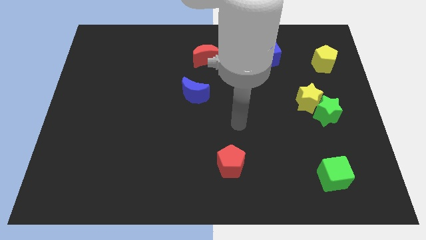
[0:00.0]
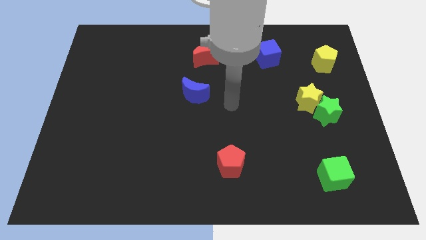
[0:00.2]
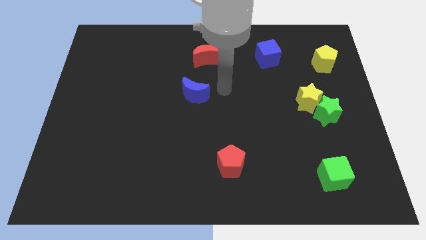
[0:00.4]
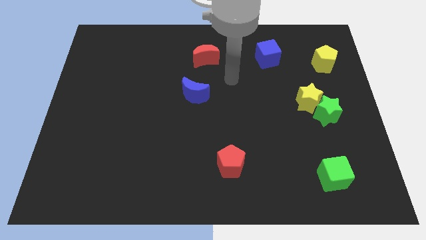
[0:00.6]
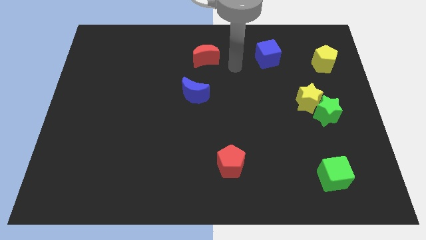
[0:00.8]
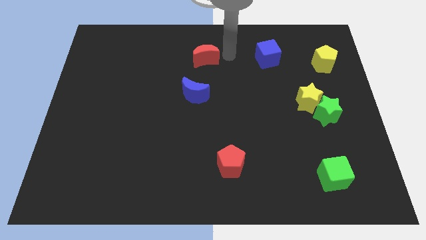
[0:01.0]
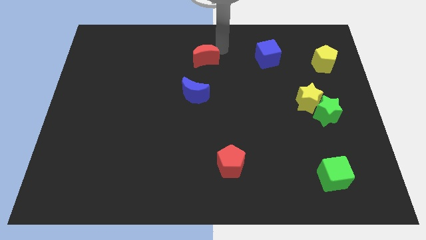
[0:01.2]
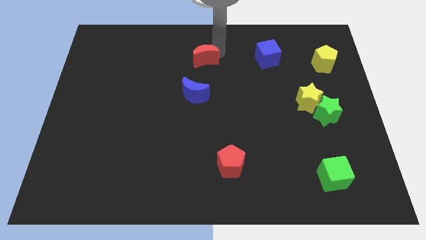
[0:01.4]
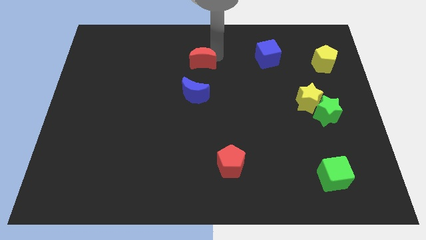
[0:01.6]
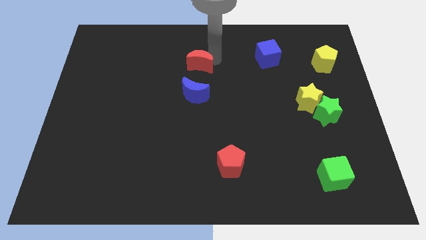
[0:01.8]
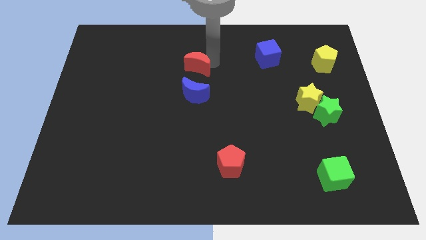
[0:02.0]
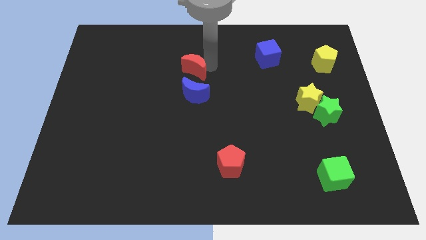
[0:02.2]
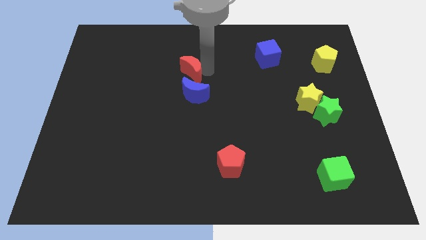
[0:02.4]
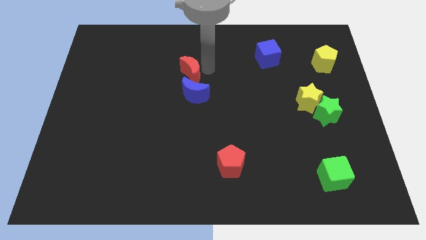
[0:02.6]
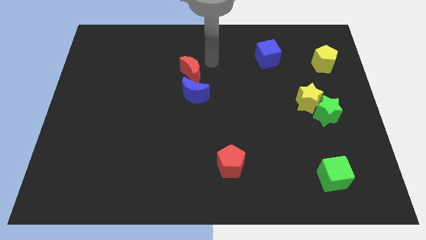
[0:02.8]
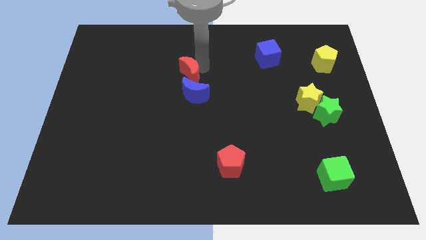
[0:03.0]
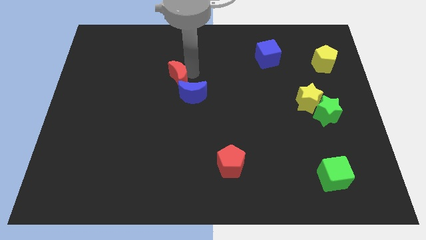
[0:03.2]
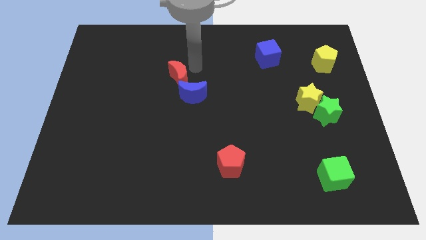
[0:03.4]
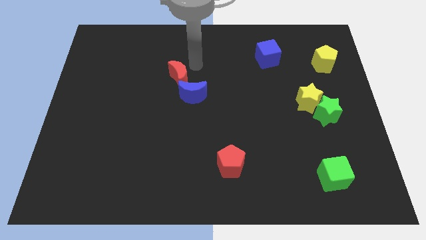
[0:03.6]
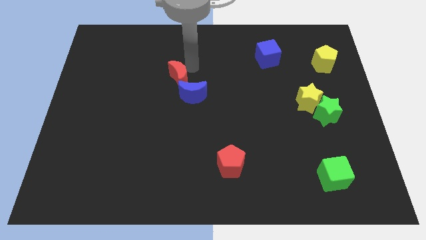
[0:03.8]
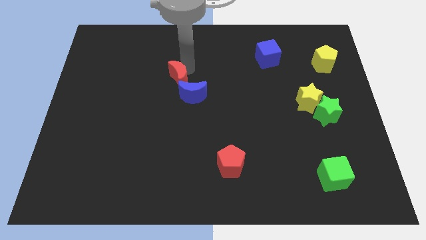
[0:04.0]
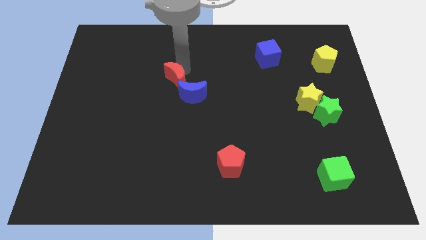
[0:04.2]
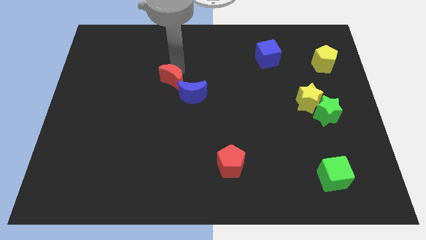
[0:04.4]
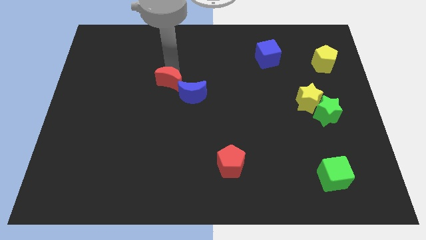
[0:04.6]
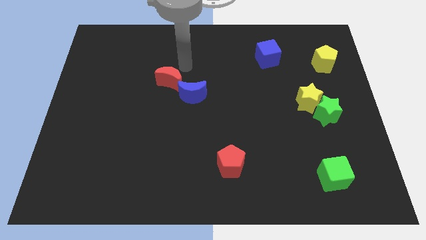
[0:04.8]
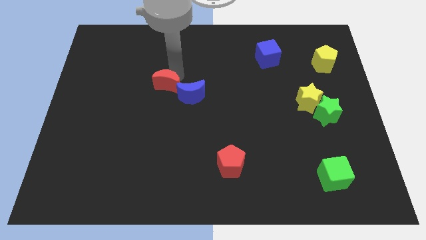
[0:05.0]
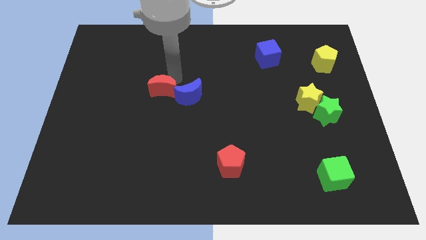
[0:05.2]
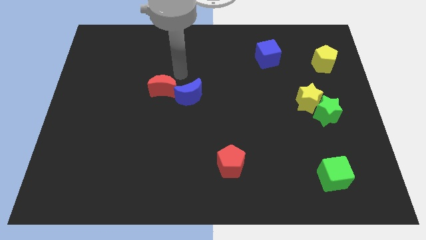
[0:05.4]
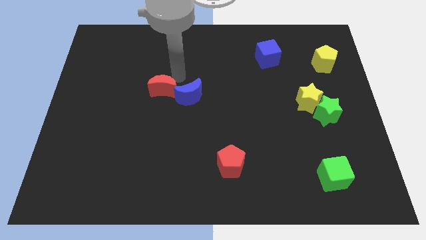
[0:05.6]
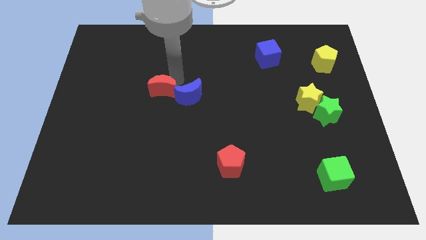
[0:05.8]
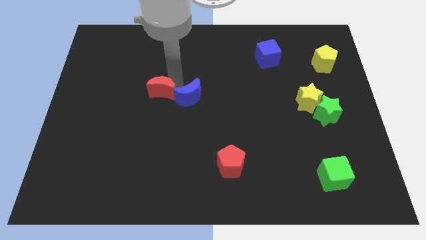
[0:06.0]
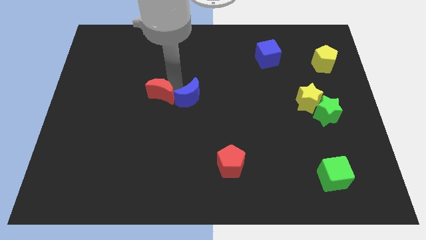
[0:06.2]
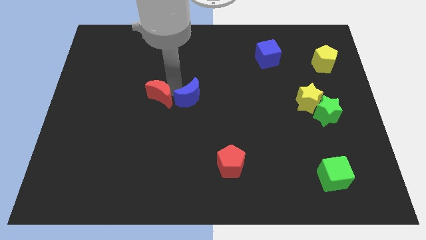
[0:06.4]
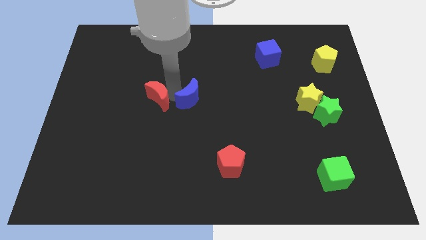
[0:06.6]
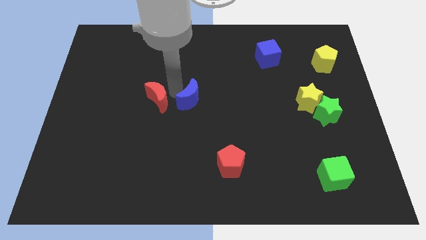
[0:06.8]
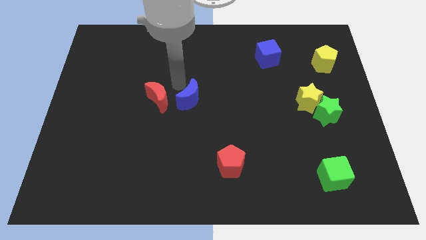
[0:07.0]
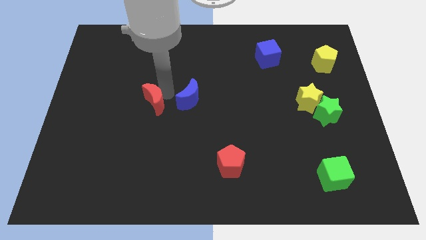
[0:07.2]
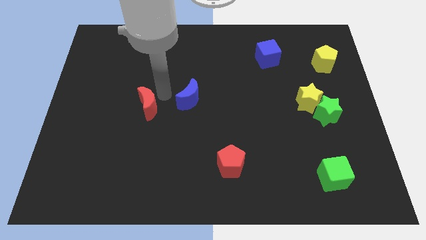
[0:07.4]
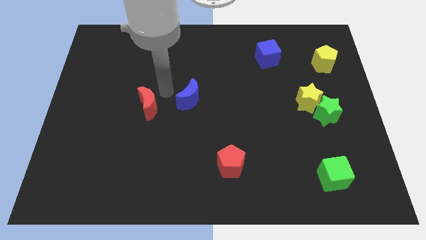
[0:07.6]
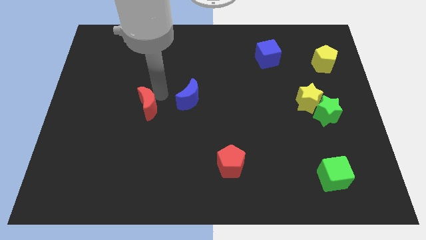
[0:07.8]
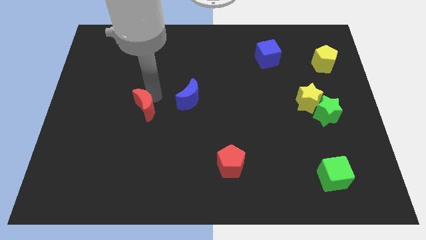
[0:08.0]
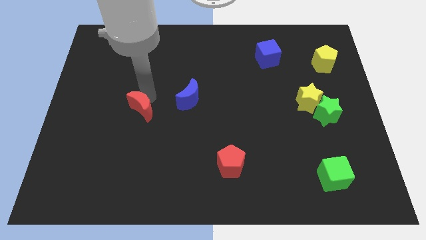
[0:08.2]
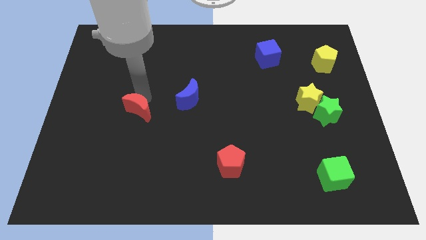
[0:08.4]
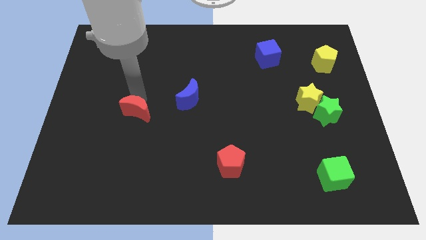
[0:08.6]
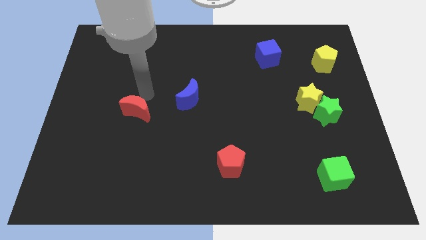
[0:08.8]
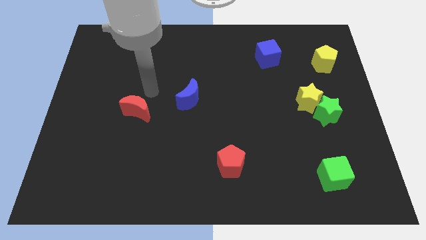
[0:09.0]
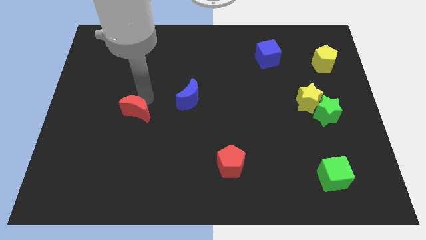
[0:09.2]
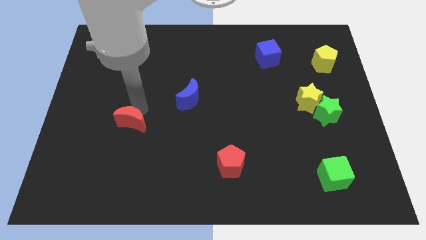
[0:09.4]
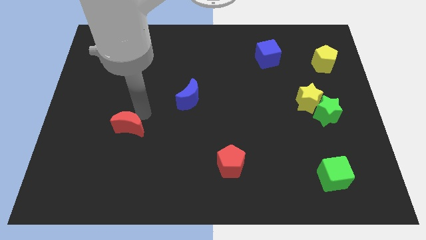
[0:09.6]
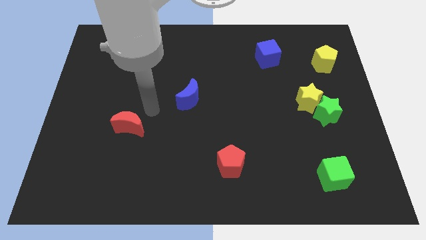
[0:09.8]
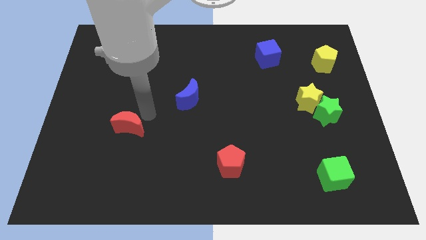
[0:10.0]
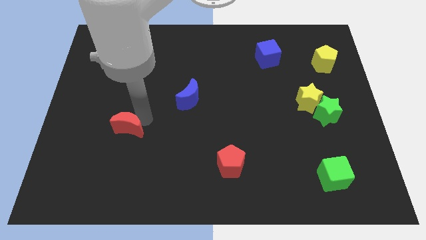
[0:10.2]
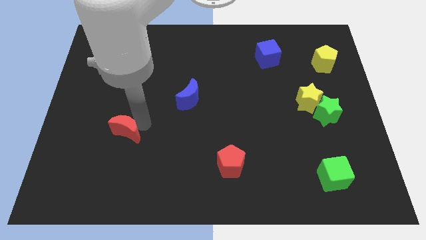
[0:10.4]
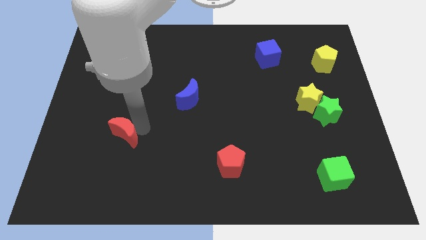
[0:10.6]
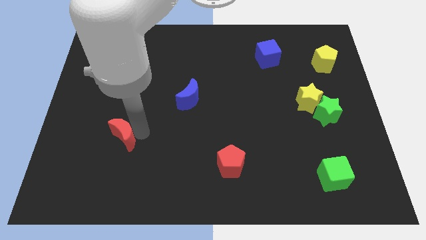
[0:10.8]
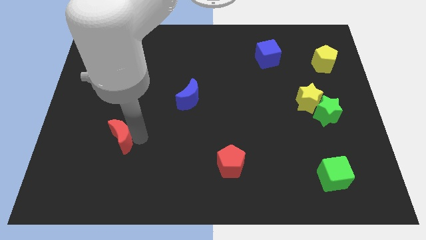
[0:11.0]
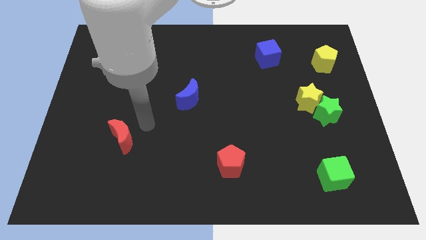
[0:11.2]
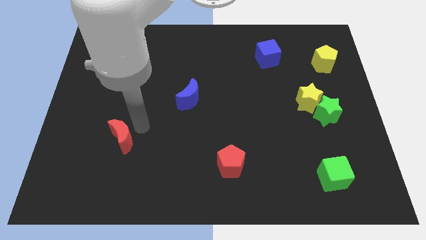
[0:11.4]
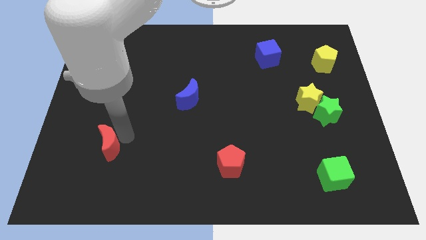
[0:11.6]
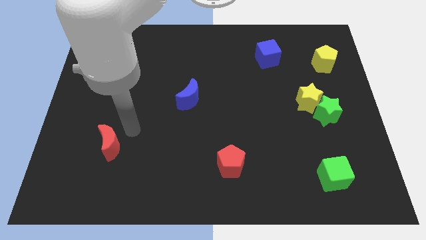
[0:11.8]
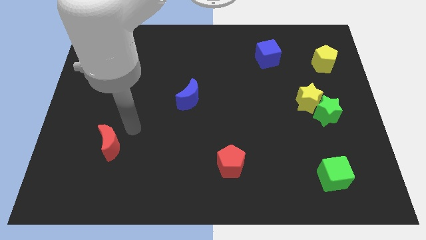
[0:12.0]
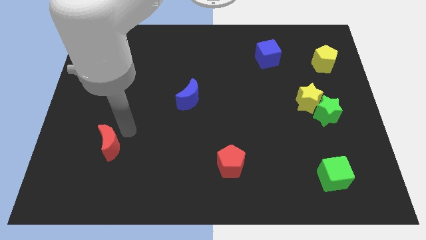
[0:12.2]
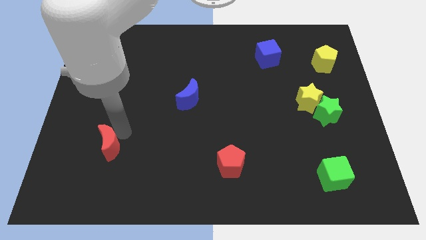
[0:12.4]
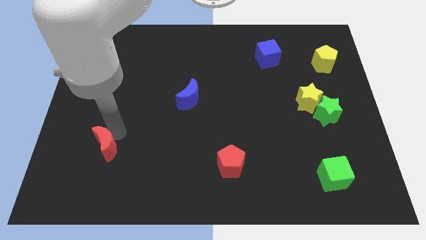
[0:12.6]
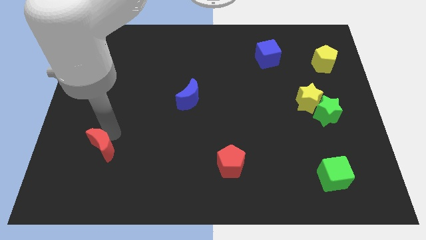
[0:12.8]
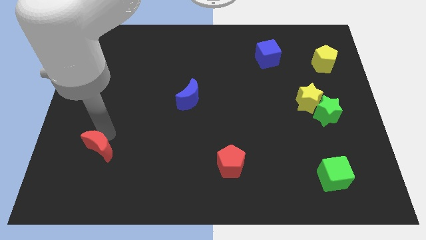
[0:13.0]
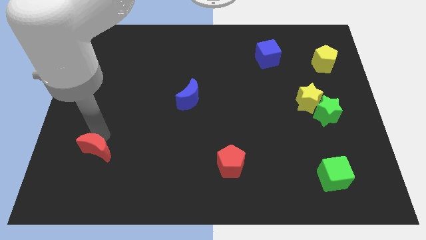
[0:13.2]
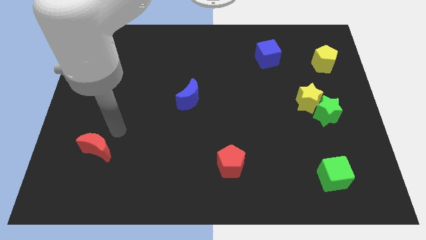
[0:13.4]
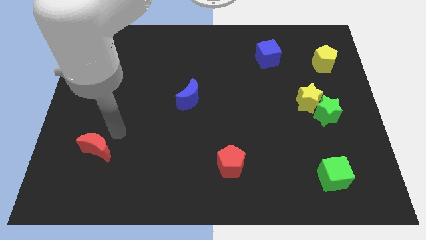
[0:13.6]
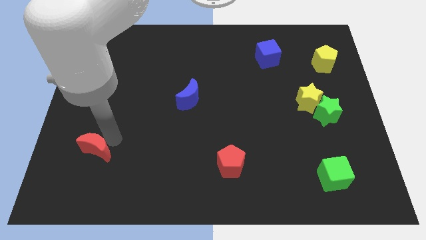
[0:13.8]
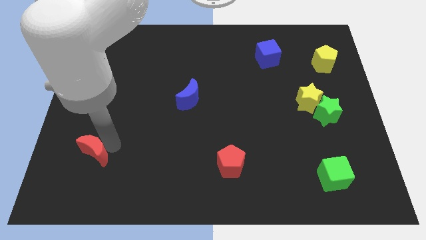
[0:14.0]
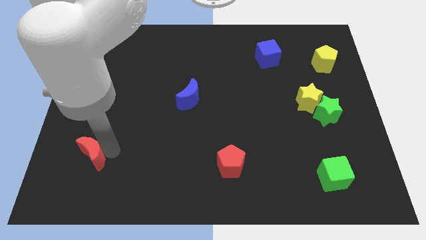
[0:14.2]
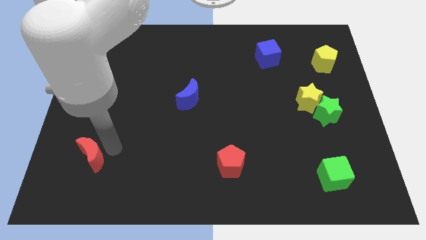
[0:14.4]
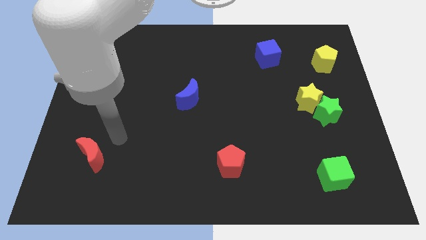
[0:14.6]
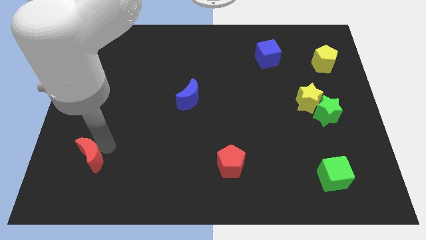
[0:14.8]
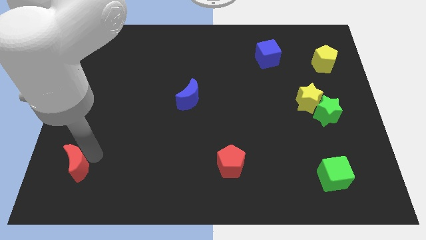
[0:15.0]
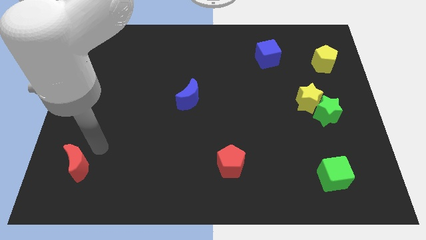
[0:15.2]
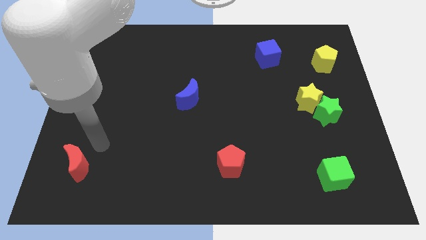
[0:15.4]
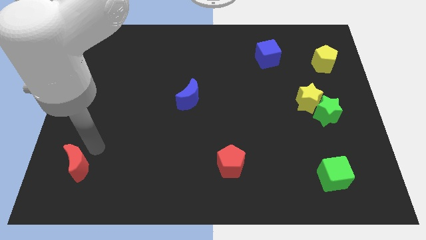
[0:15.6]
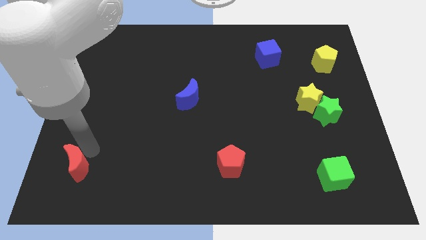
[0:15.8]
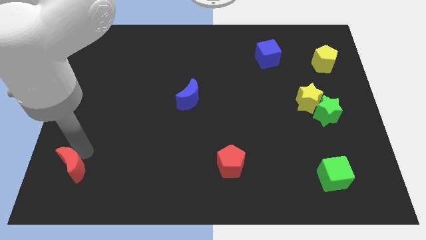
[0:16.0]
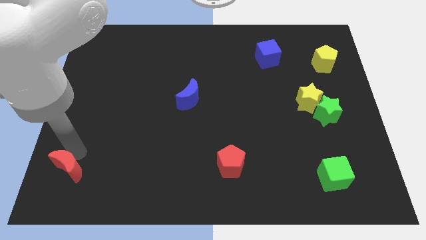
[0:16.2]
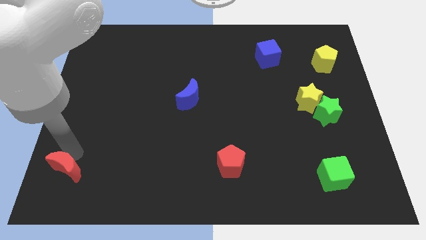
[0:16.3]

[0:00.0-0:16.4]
put the red moon to the bottom left
